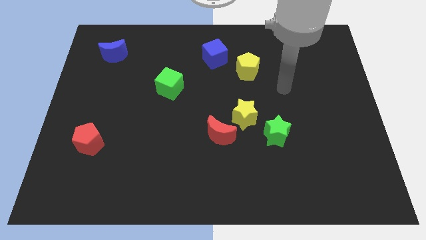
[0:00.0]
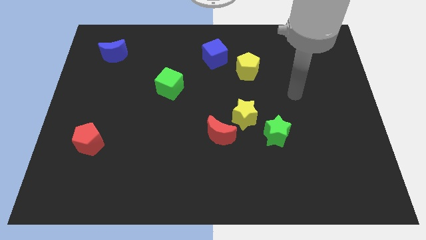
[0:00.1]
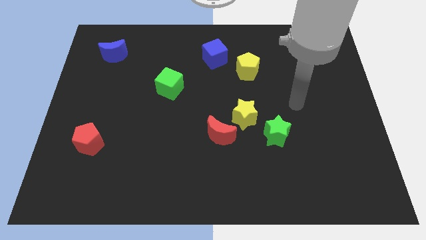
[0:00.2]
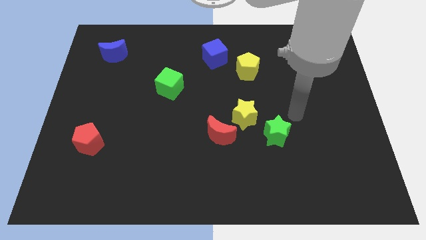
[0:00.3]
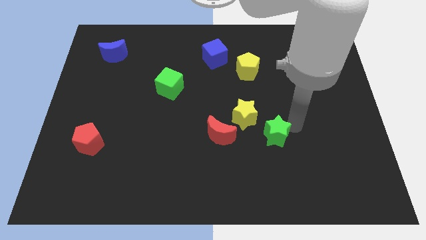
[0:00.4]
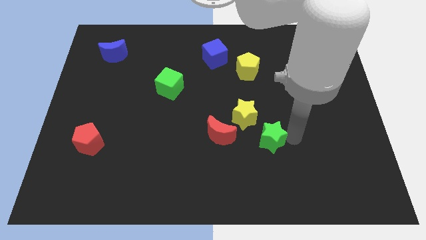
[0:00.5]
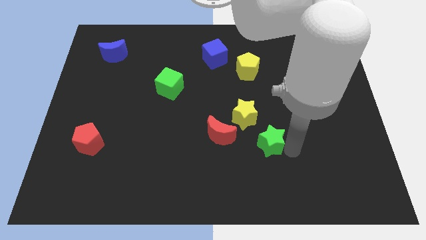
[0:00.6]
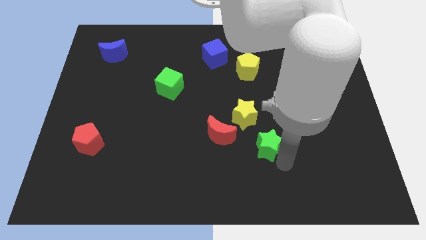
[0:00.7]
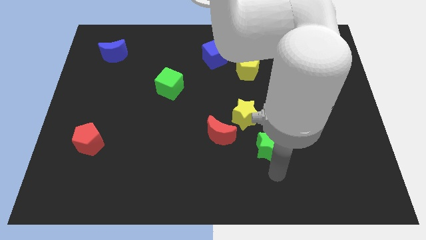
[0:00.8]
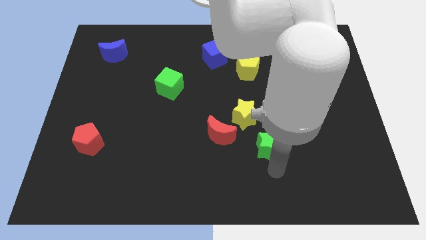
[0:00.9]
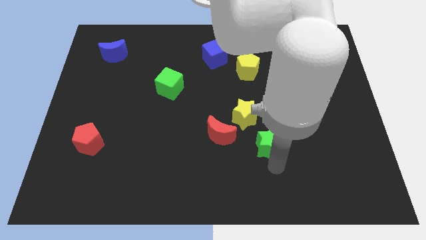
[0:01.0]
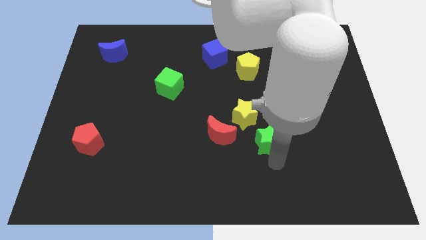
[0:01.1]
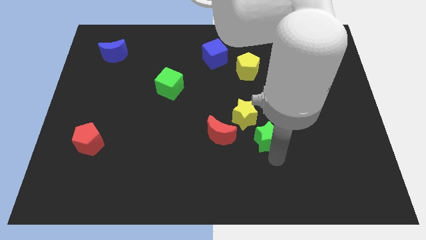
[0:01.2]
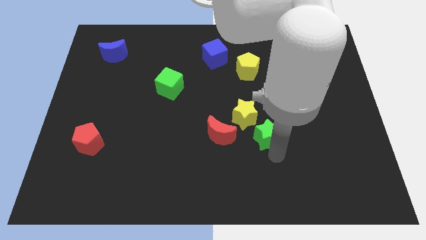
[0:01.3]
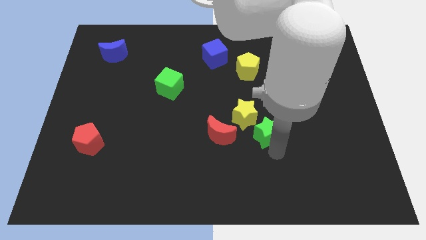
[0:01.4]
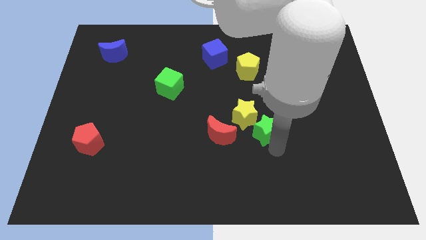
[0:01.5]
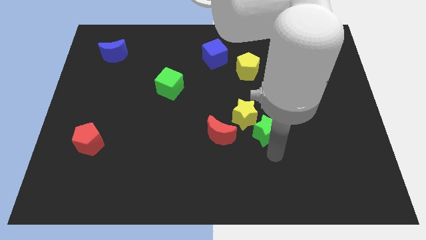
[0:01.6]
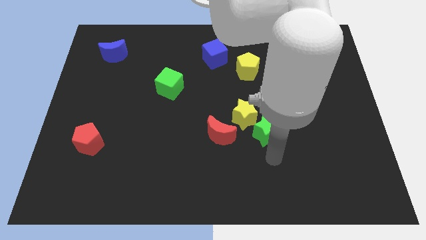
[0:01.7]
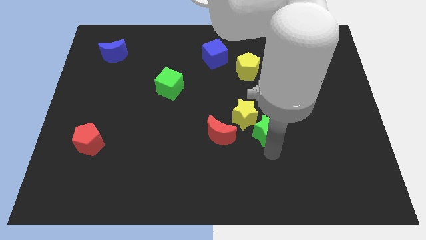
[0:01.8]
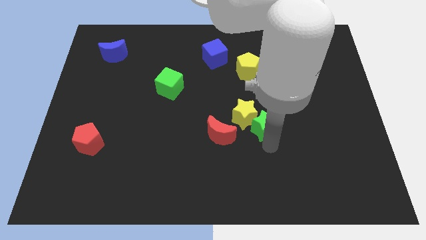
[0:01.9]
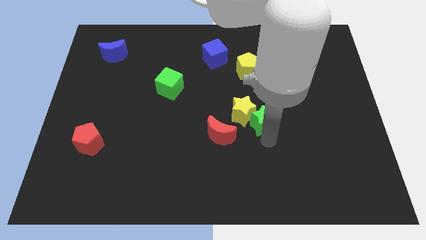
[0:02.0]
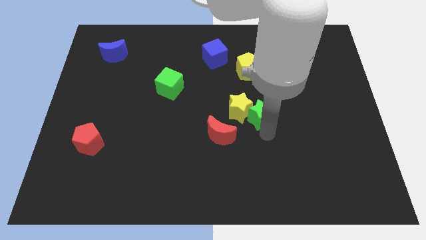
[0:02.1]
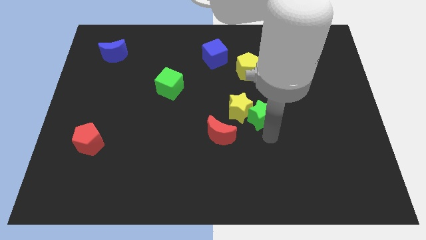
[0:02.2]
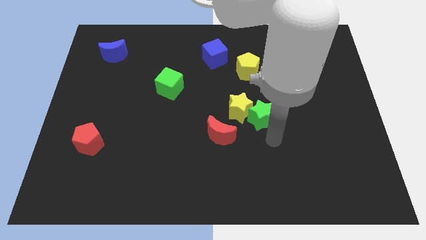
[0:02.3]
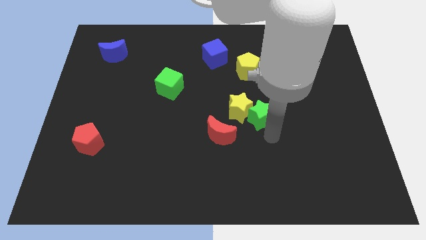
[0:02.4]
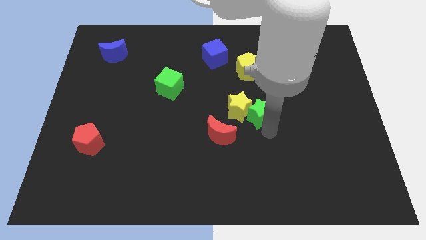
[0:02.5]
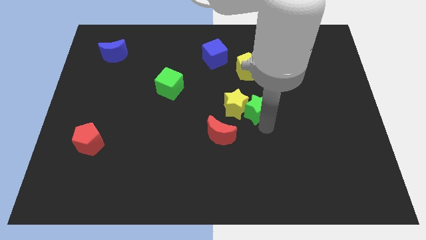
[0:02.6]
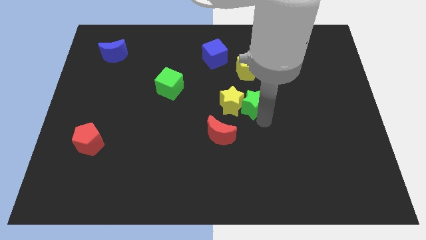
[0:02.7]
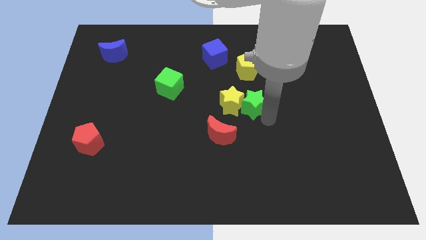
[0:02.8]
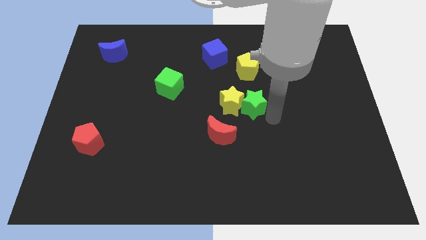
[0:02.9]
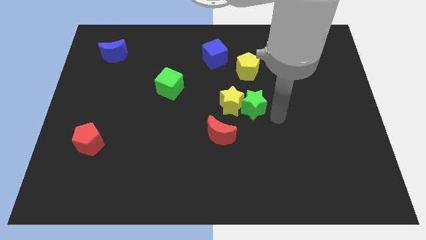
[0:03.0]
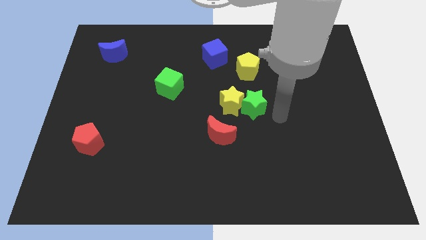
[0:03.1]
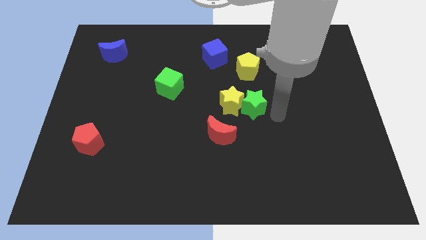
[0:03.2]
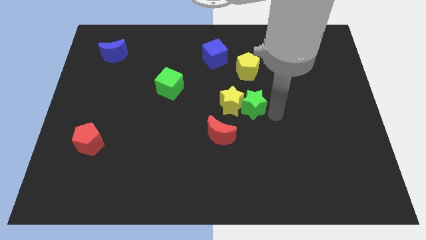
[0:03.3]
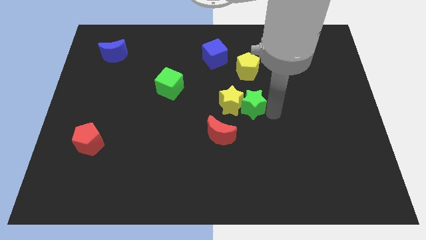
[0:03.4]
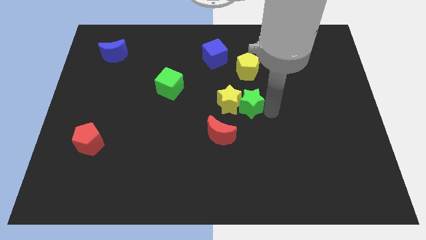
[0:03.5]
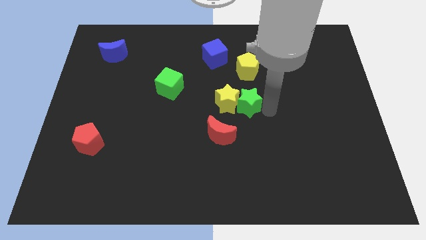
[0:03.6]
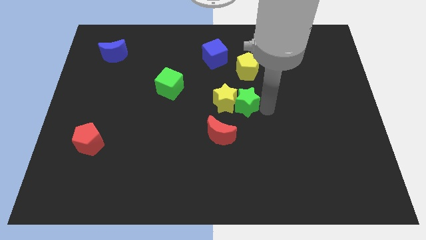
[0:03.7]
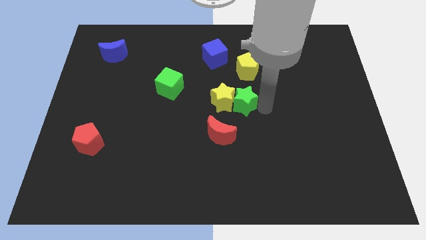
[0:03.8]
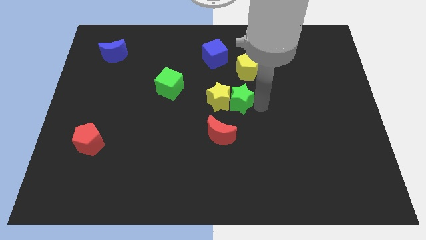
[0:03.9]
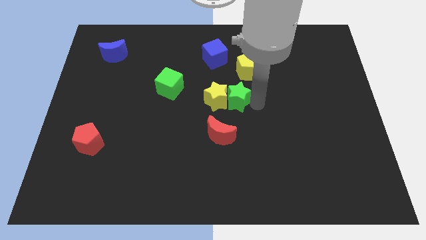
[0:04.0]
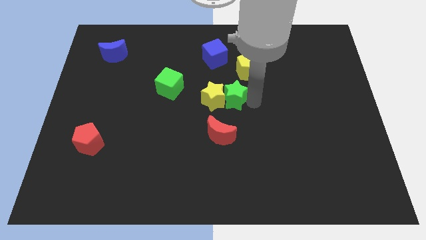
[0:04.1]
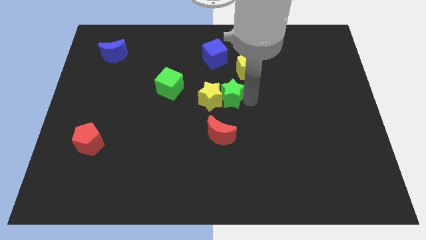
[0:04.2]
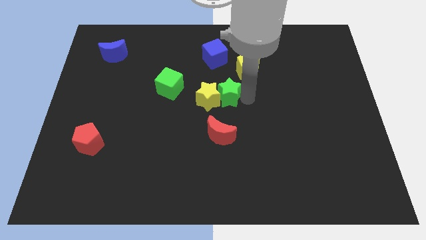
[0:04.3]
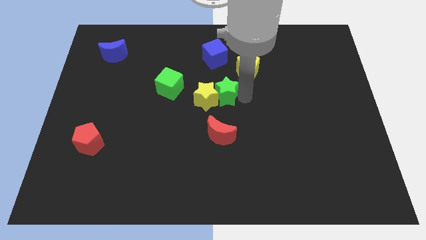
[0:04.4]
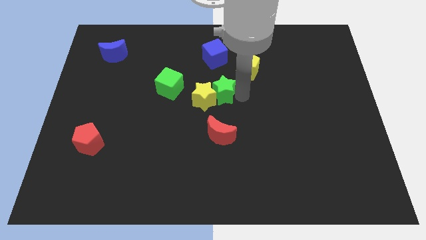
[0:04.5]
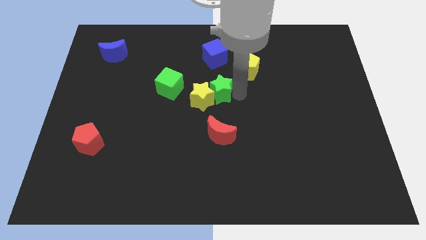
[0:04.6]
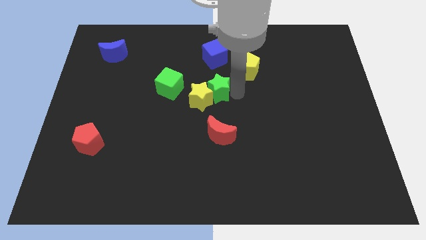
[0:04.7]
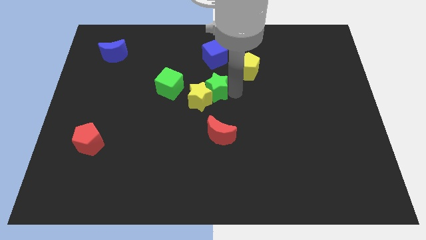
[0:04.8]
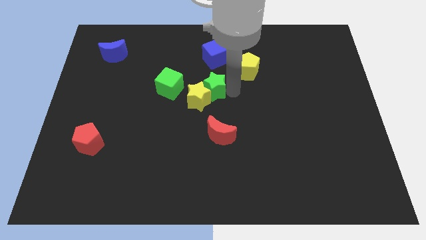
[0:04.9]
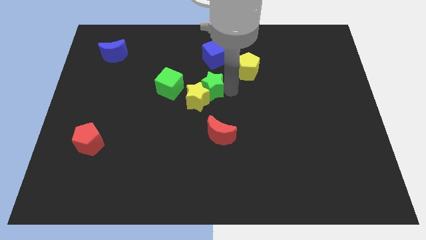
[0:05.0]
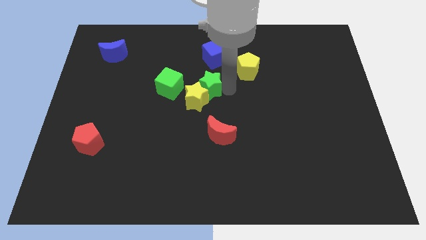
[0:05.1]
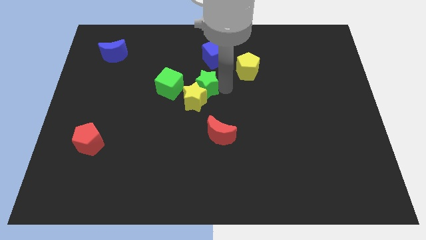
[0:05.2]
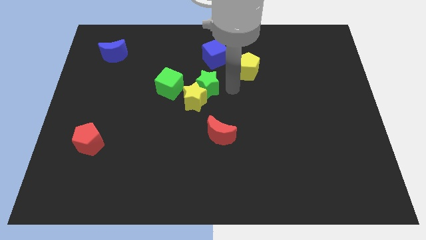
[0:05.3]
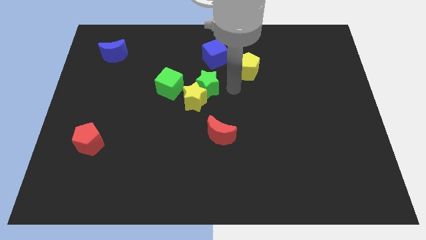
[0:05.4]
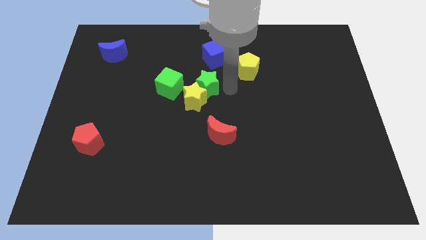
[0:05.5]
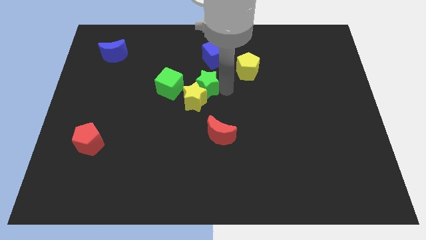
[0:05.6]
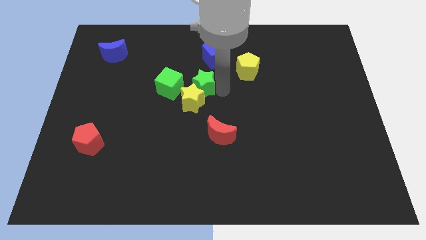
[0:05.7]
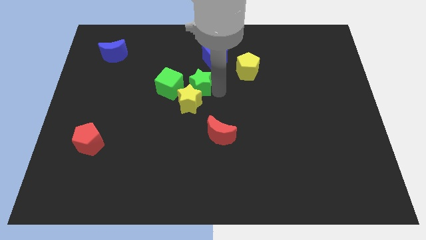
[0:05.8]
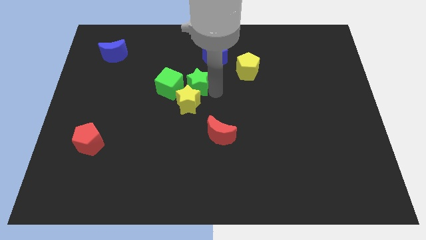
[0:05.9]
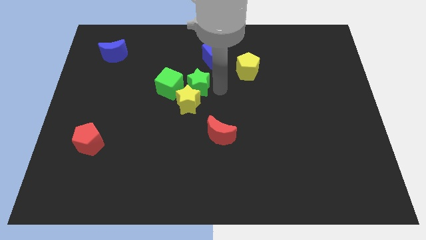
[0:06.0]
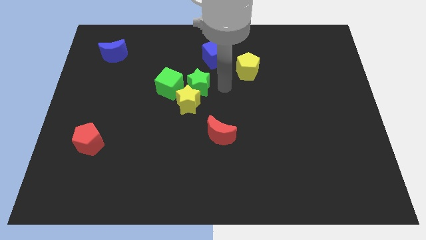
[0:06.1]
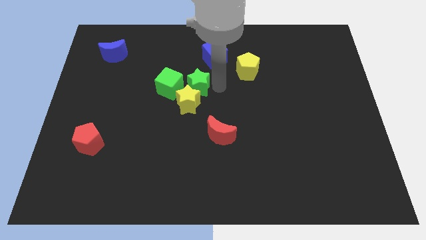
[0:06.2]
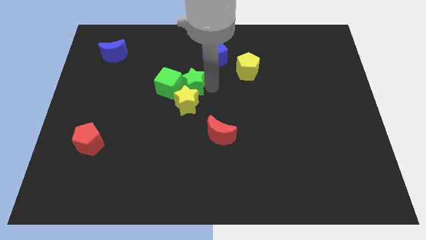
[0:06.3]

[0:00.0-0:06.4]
put the green star to the green cube

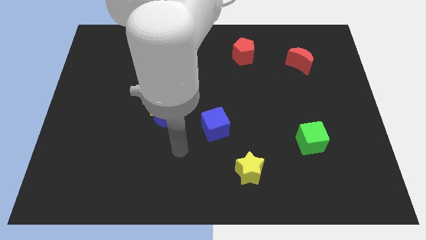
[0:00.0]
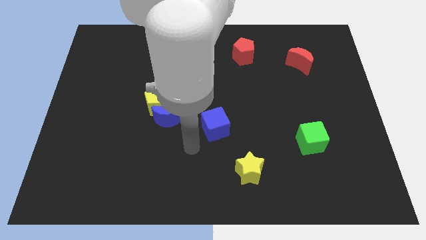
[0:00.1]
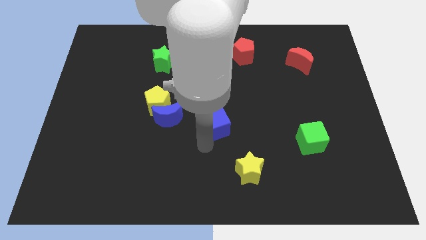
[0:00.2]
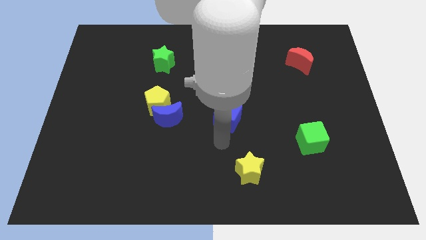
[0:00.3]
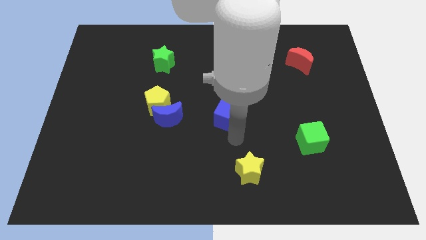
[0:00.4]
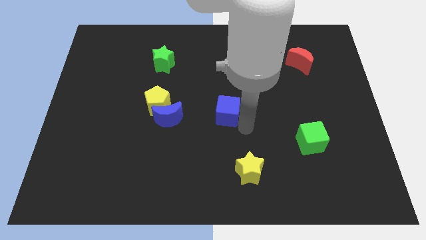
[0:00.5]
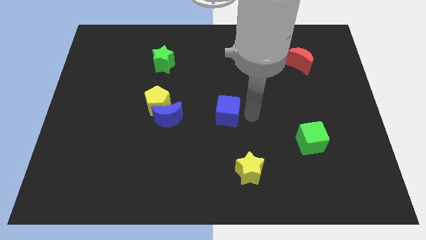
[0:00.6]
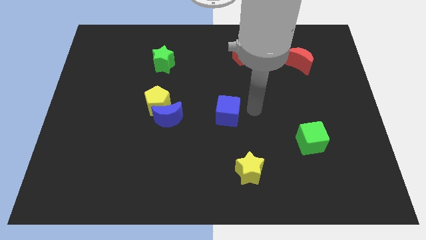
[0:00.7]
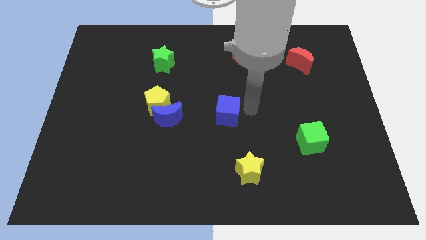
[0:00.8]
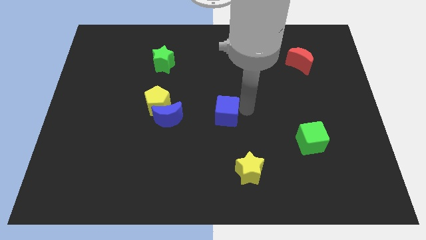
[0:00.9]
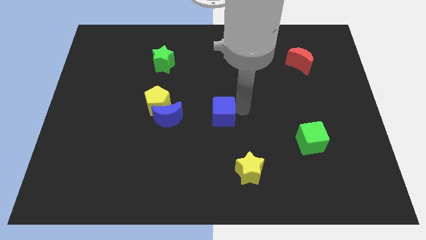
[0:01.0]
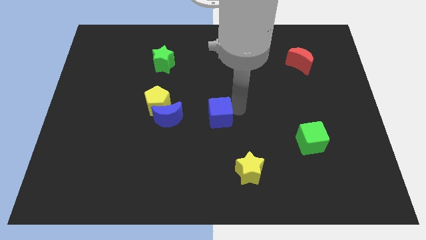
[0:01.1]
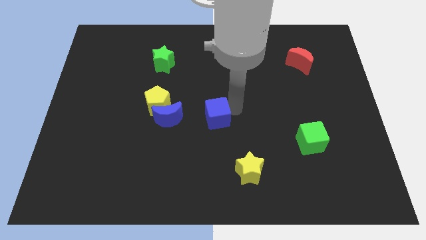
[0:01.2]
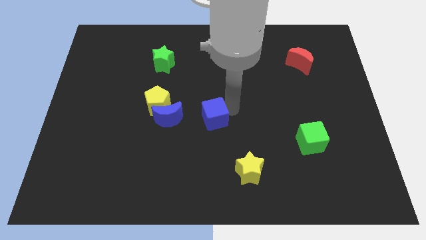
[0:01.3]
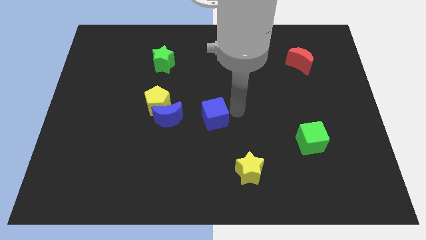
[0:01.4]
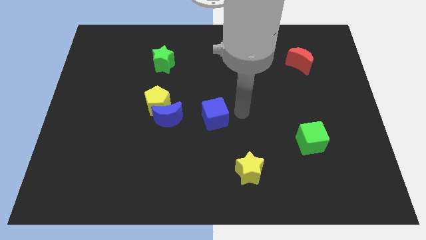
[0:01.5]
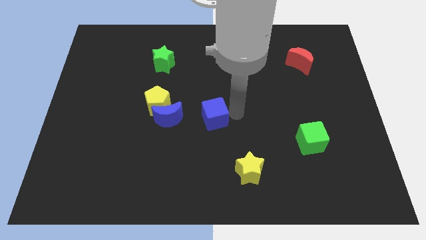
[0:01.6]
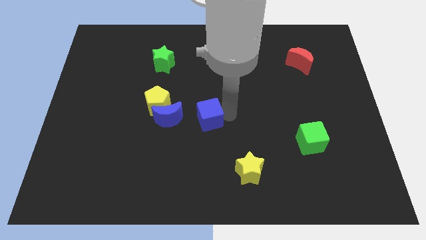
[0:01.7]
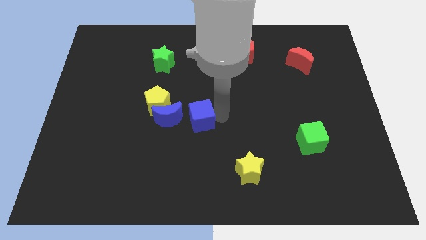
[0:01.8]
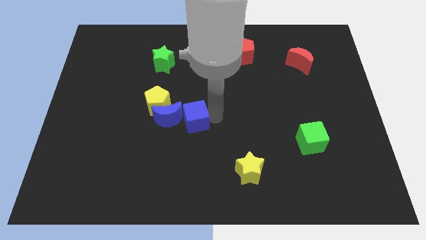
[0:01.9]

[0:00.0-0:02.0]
put the blue cube close to the blue moon
